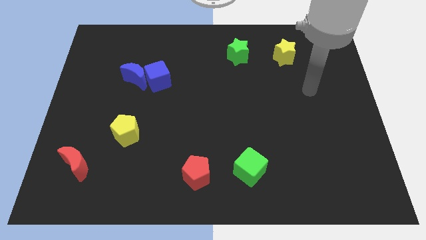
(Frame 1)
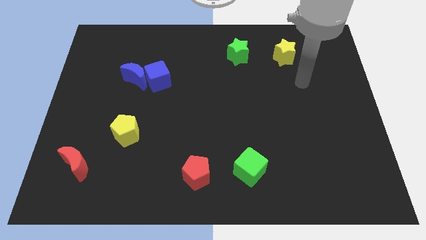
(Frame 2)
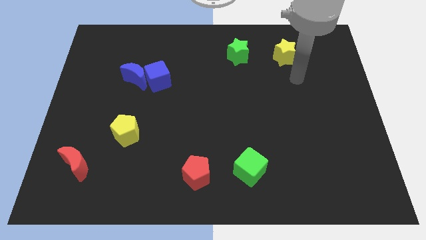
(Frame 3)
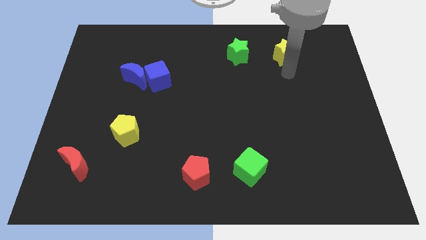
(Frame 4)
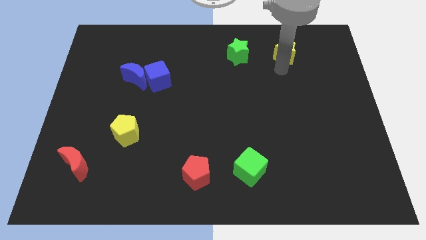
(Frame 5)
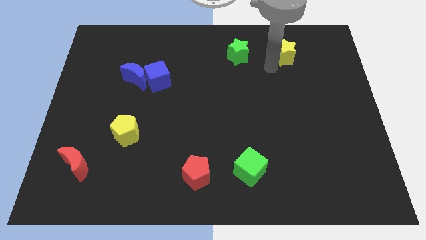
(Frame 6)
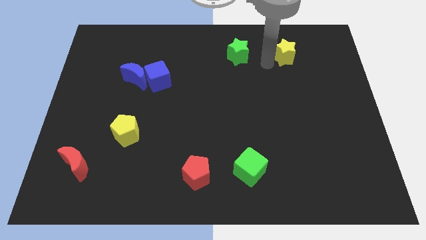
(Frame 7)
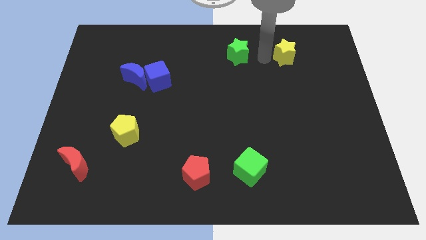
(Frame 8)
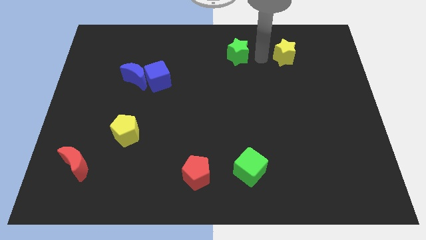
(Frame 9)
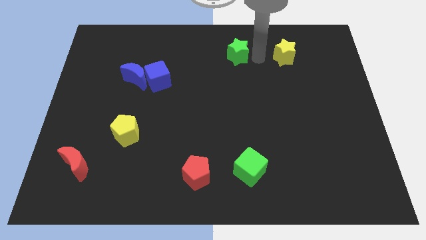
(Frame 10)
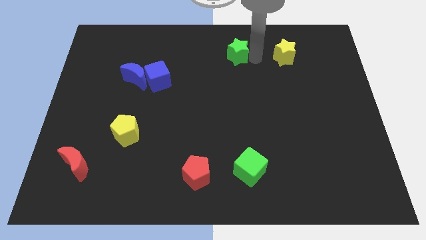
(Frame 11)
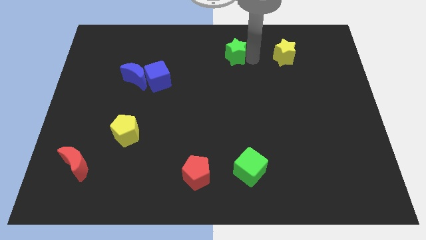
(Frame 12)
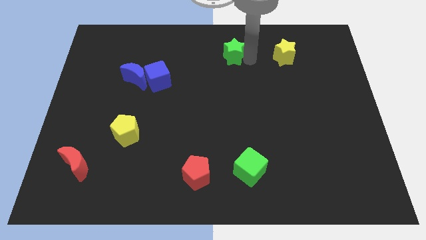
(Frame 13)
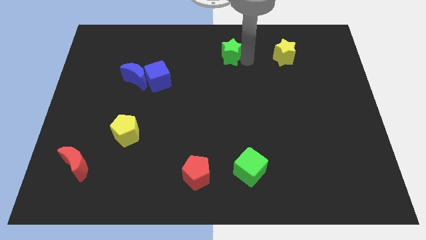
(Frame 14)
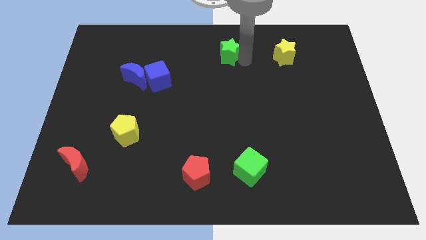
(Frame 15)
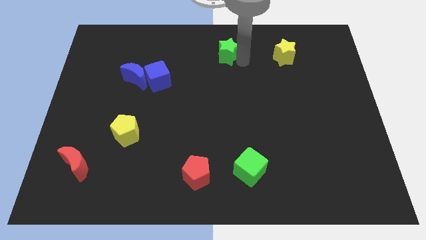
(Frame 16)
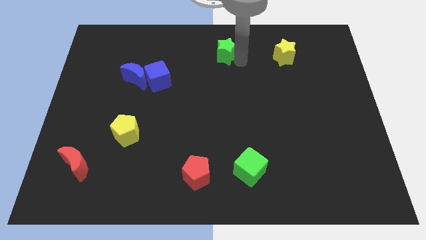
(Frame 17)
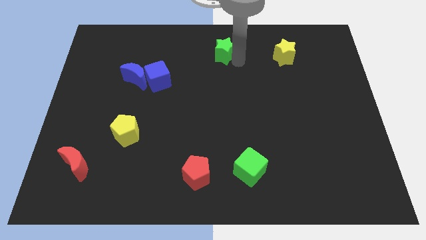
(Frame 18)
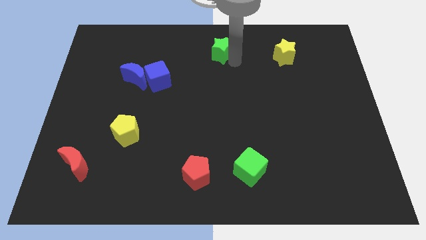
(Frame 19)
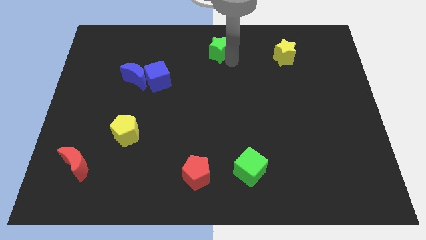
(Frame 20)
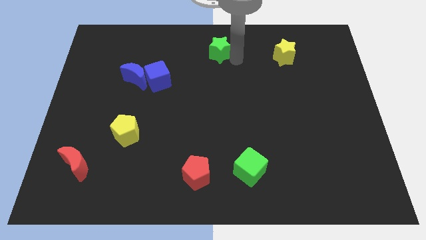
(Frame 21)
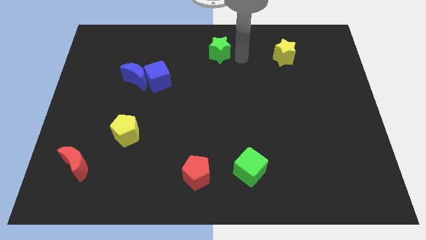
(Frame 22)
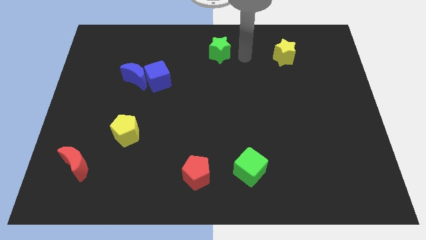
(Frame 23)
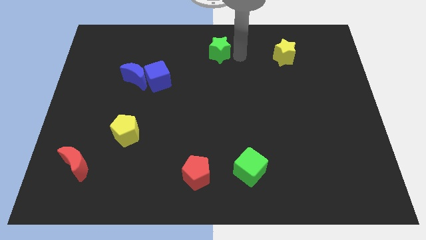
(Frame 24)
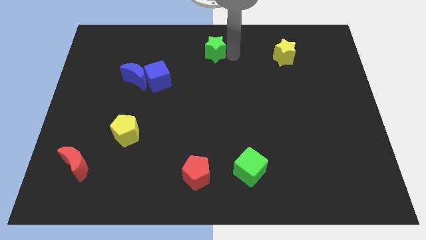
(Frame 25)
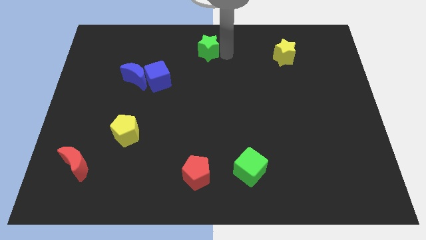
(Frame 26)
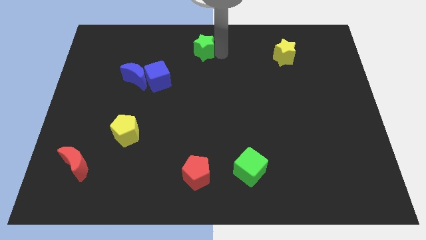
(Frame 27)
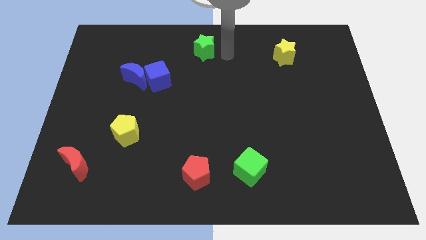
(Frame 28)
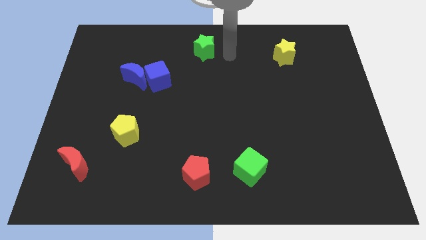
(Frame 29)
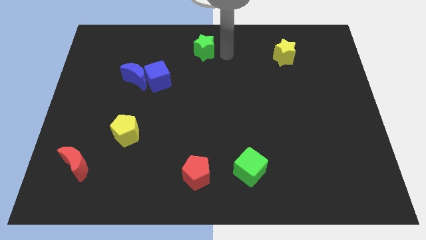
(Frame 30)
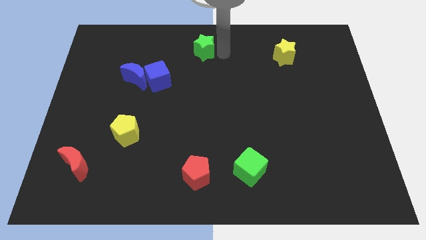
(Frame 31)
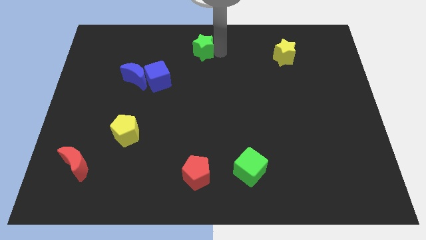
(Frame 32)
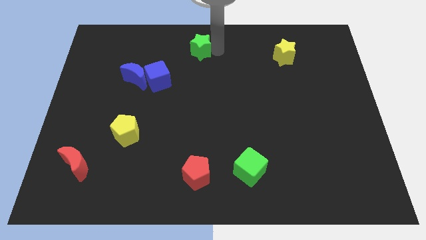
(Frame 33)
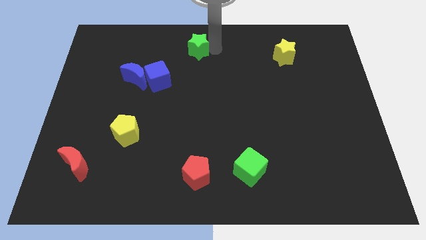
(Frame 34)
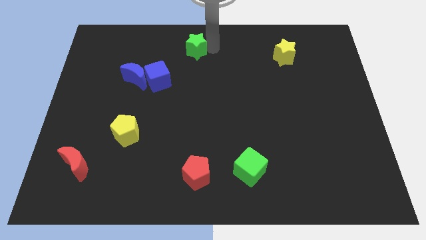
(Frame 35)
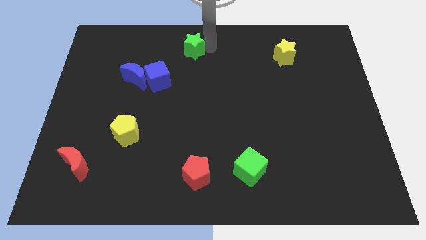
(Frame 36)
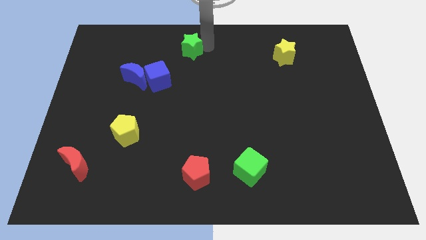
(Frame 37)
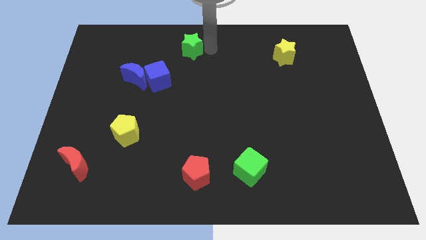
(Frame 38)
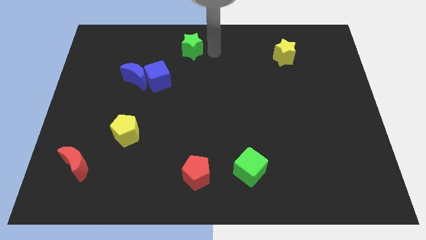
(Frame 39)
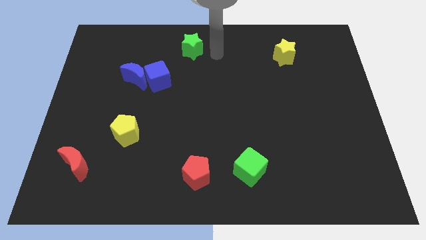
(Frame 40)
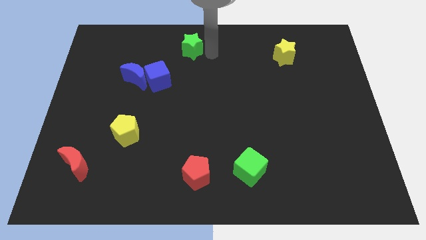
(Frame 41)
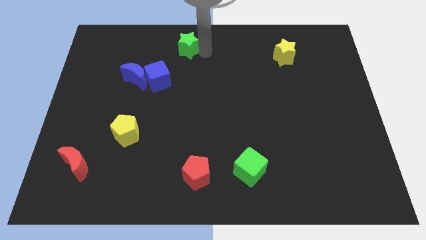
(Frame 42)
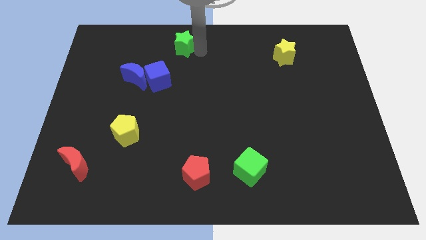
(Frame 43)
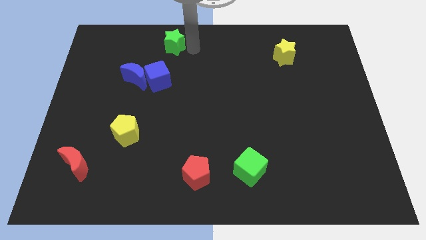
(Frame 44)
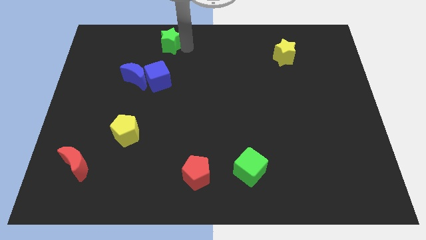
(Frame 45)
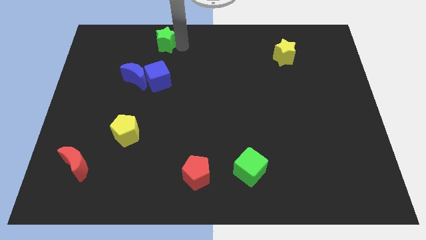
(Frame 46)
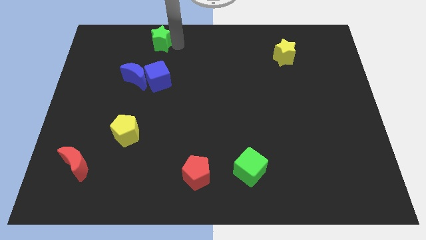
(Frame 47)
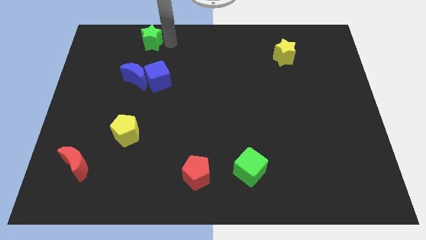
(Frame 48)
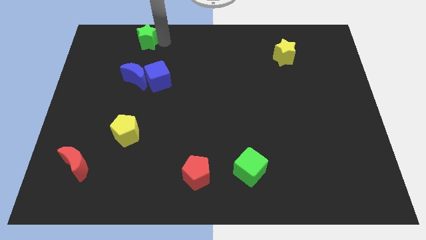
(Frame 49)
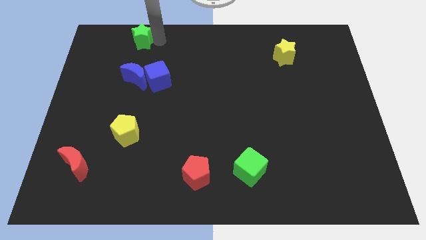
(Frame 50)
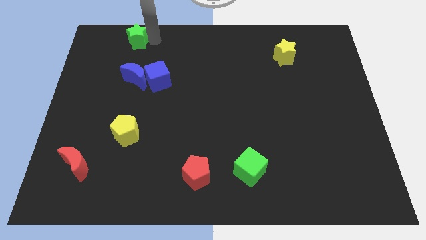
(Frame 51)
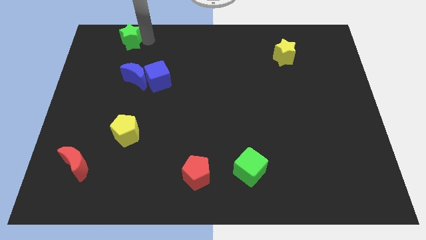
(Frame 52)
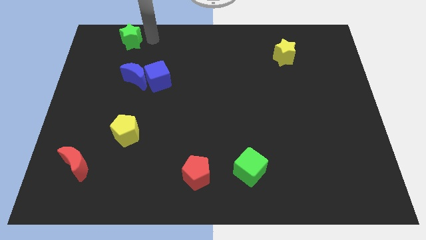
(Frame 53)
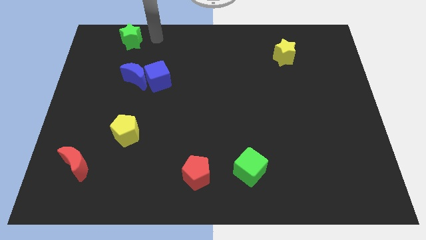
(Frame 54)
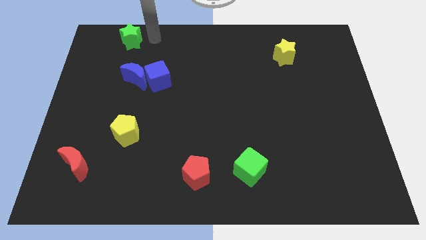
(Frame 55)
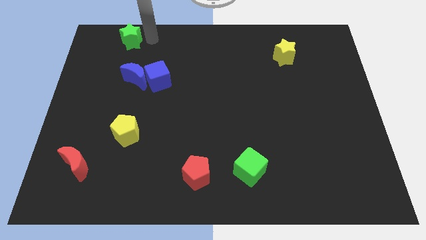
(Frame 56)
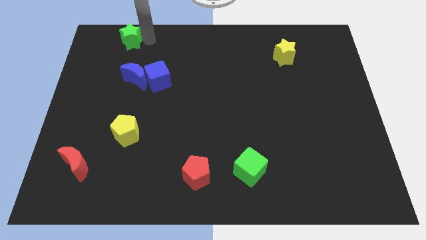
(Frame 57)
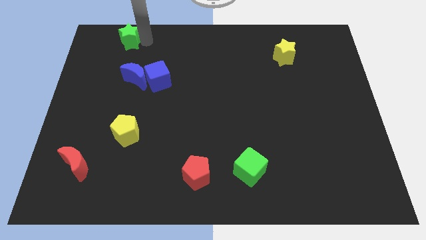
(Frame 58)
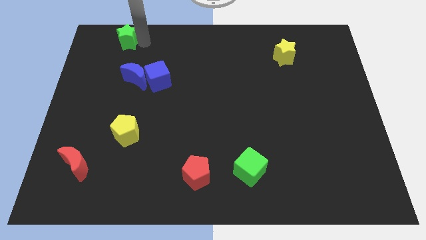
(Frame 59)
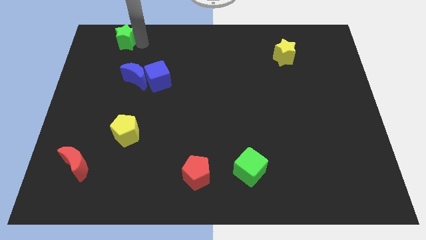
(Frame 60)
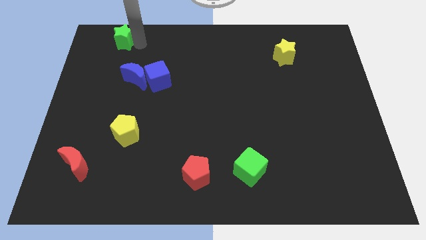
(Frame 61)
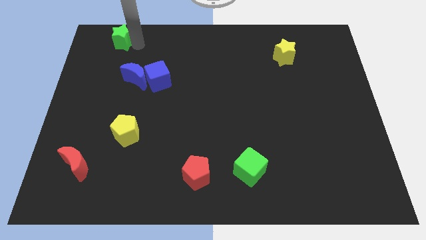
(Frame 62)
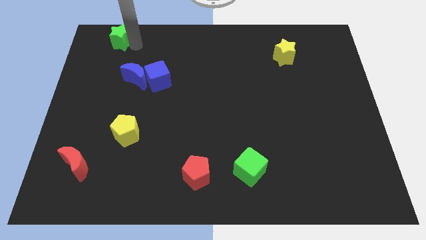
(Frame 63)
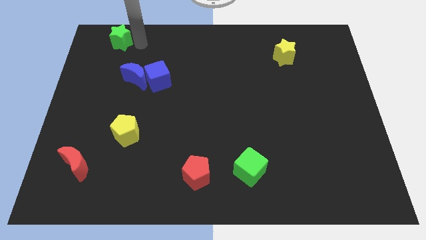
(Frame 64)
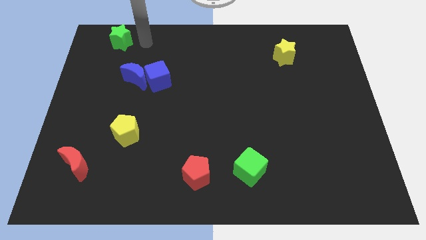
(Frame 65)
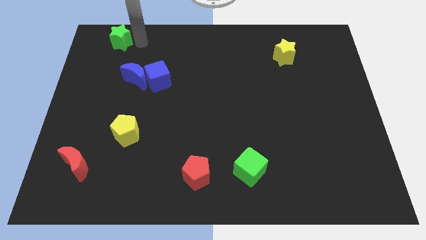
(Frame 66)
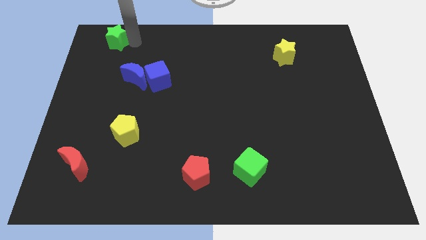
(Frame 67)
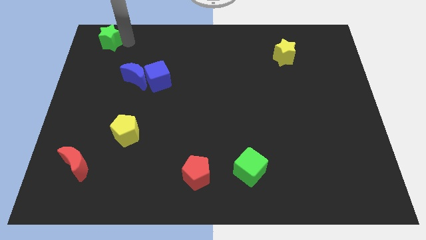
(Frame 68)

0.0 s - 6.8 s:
put the green star to the top left corner
